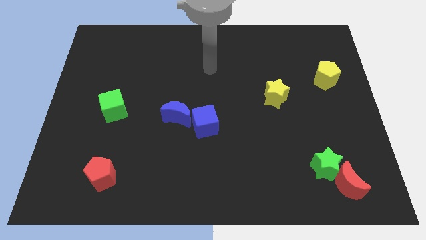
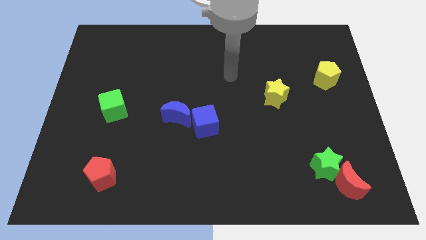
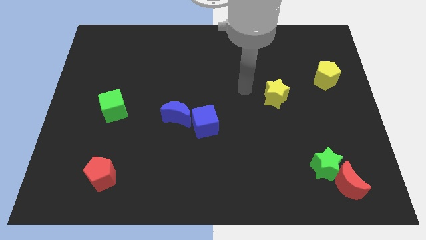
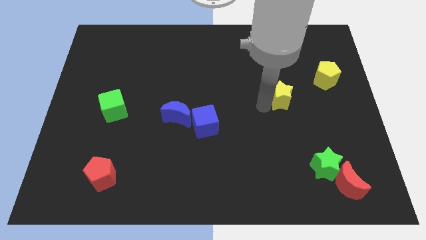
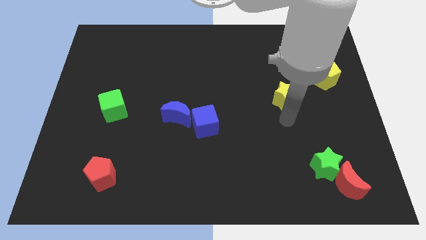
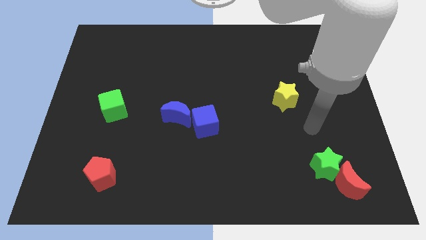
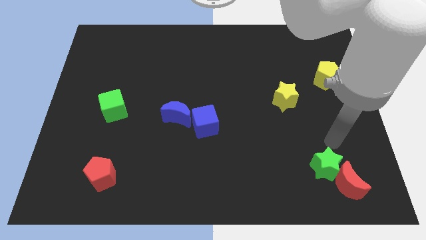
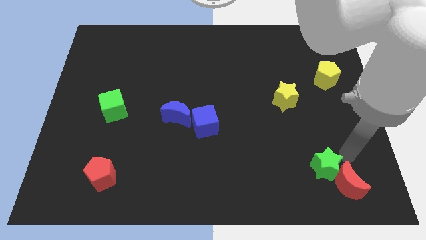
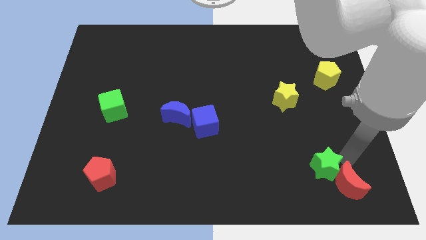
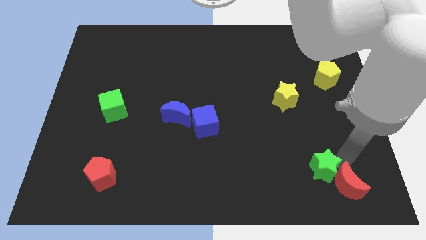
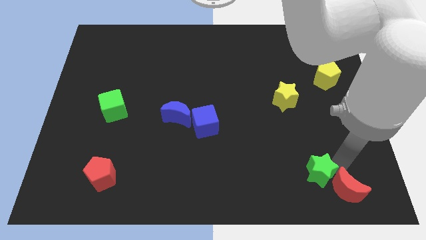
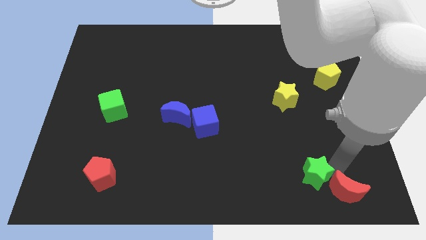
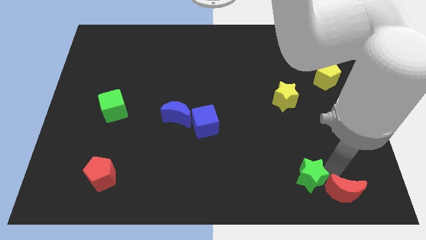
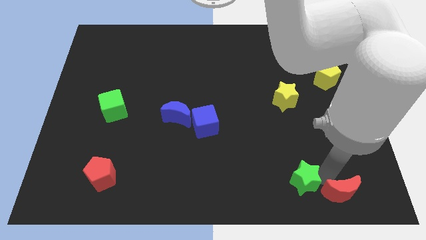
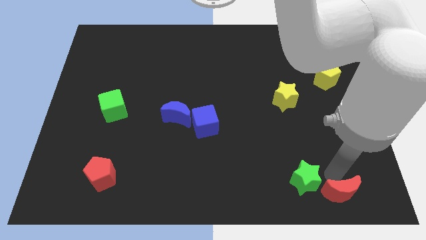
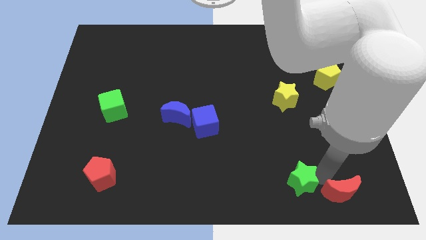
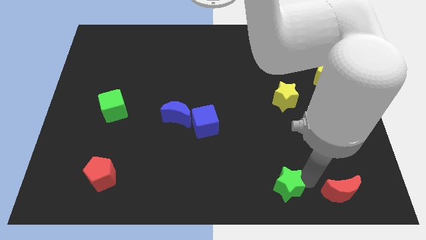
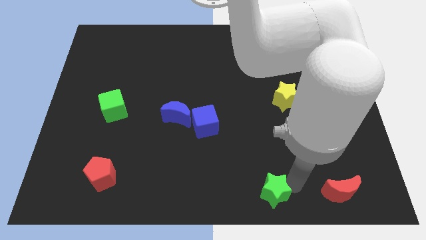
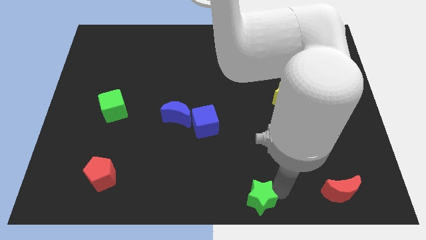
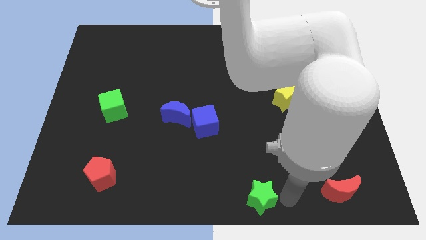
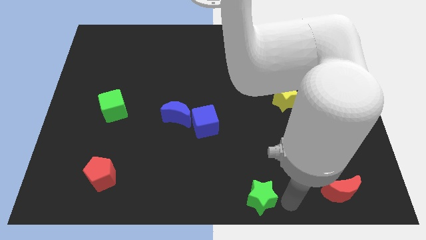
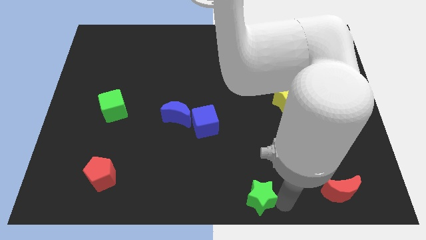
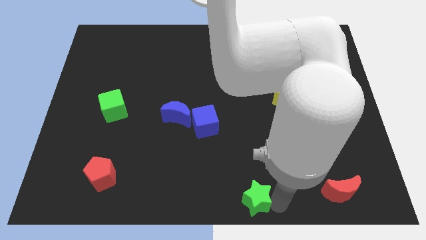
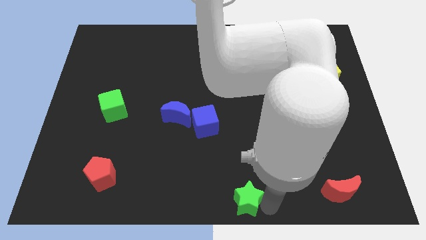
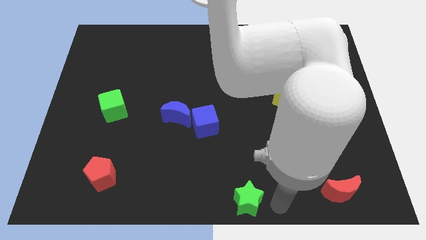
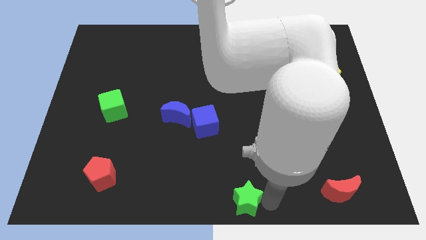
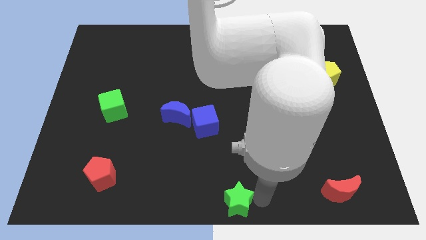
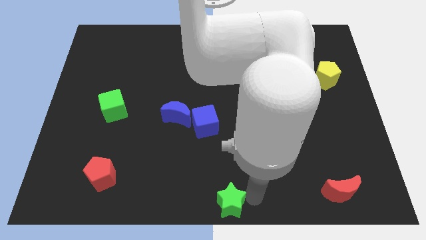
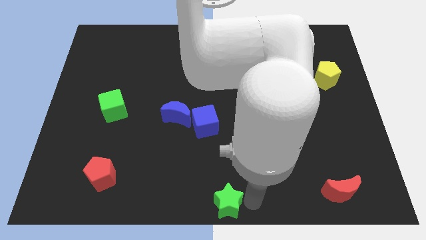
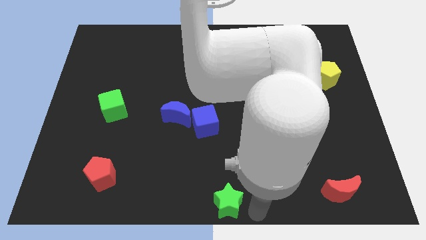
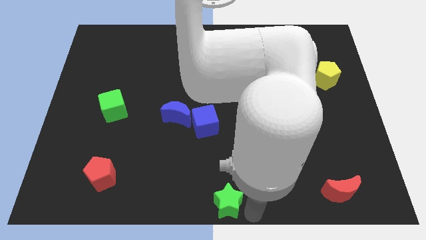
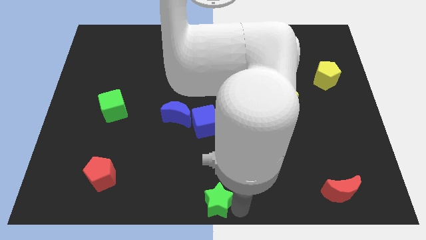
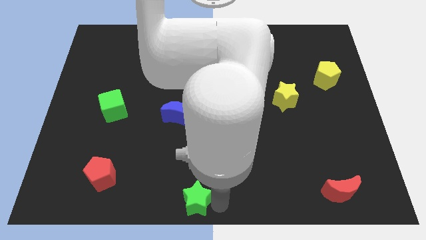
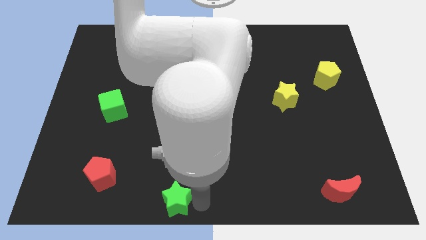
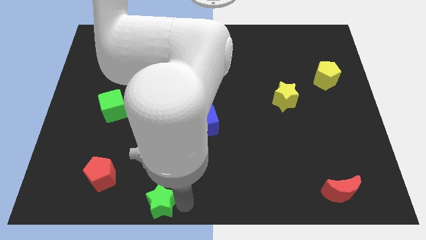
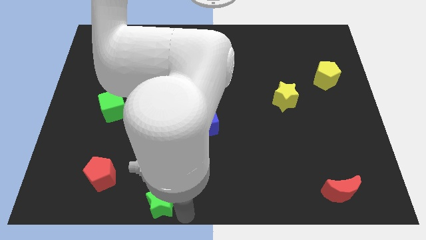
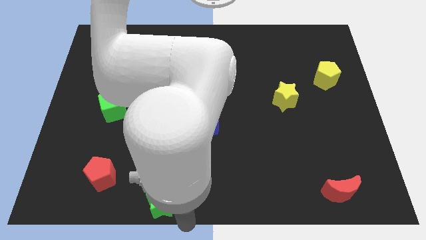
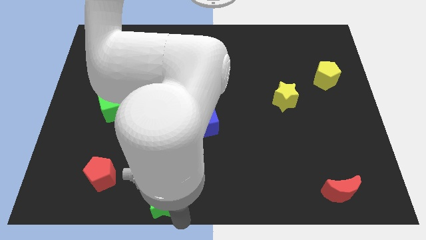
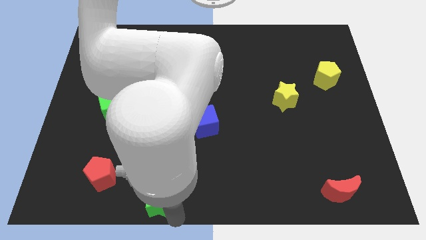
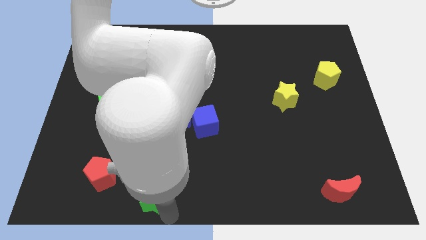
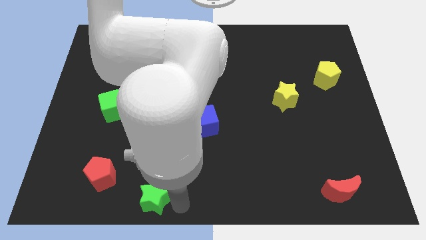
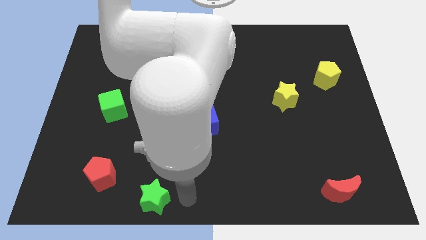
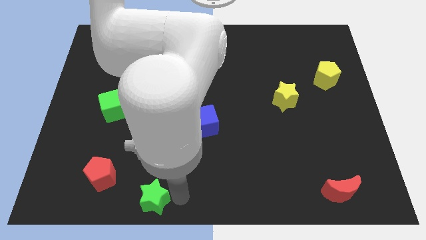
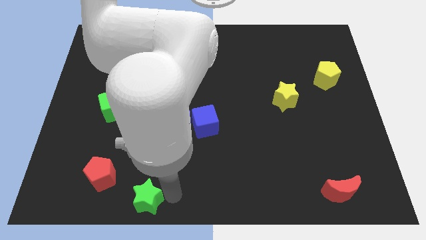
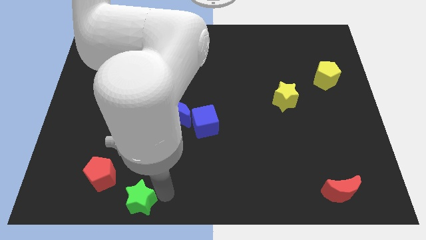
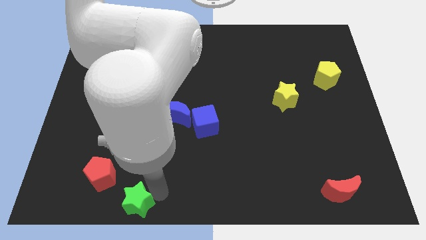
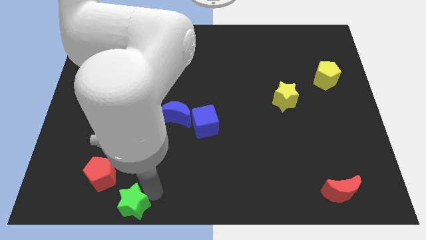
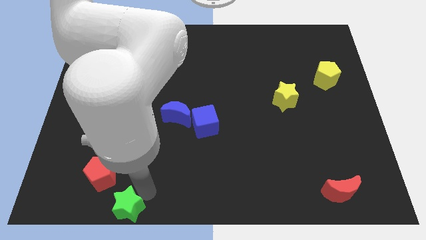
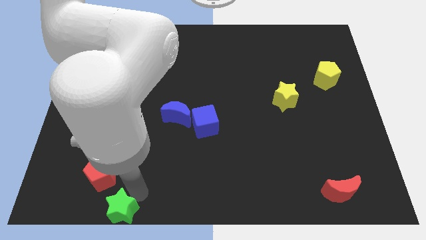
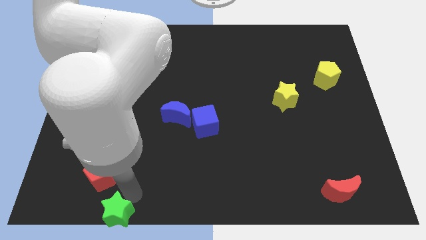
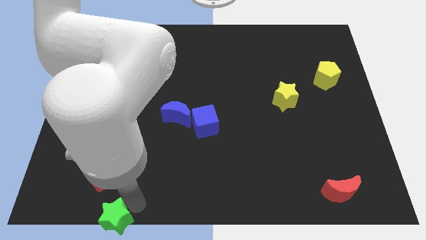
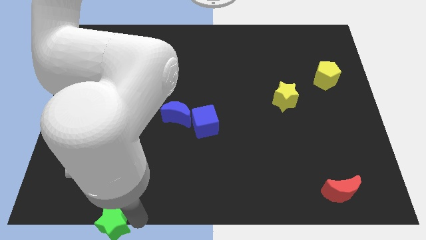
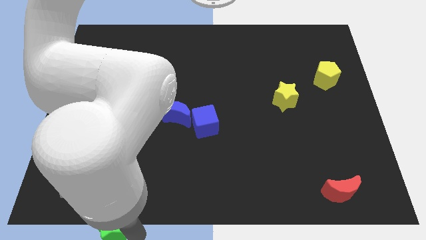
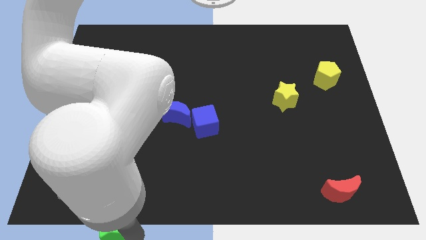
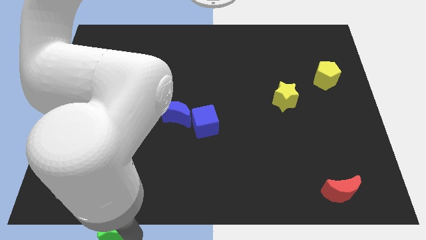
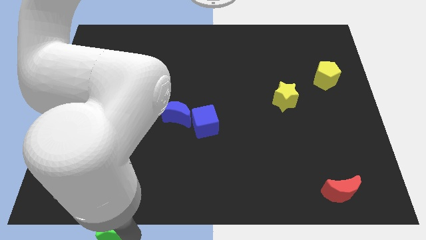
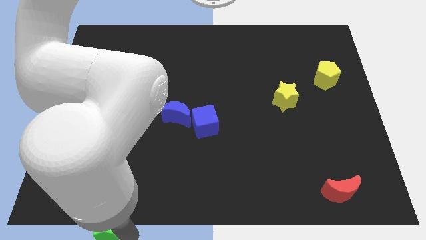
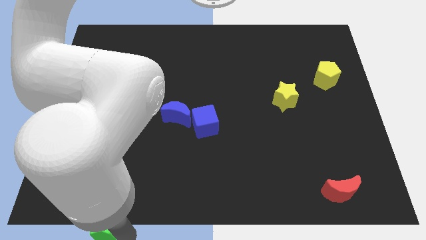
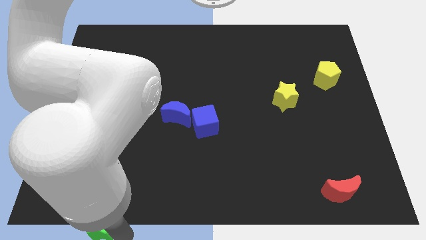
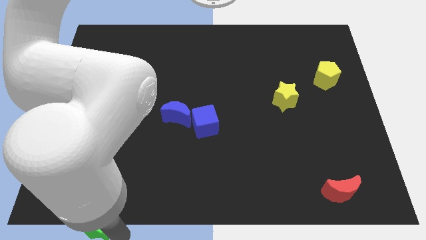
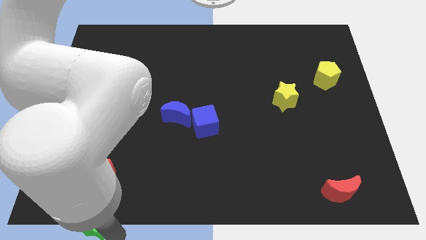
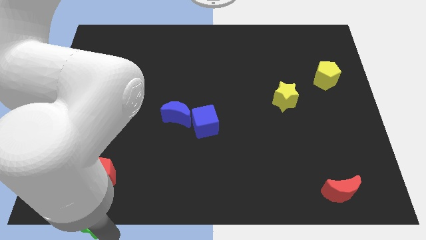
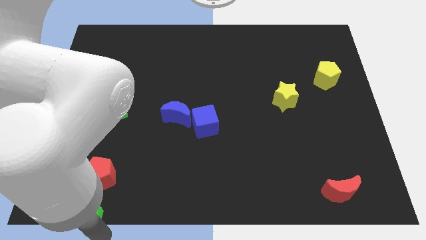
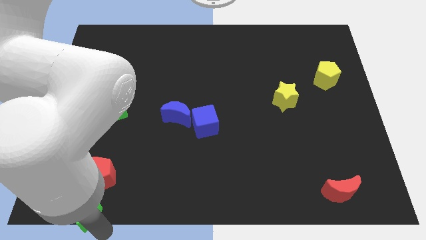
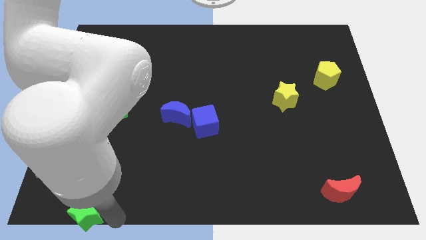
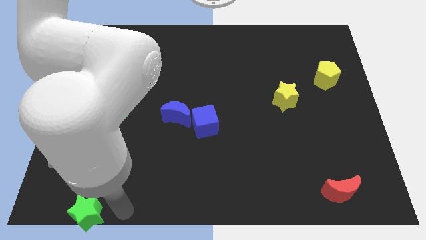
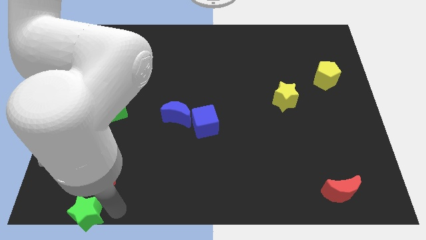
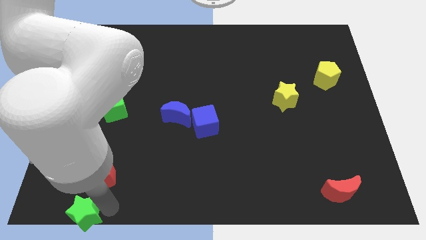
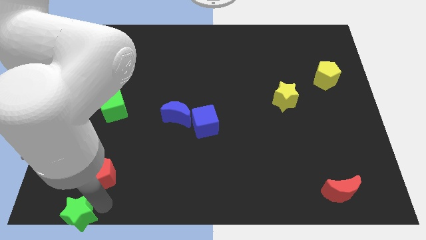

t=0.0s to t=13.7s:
slide the green star to the bottom left

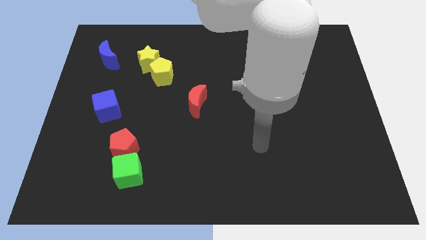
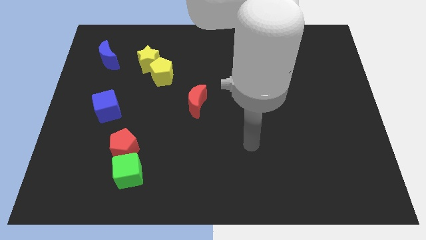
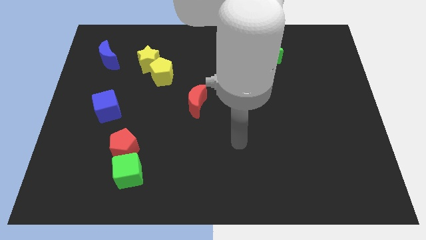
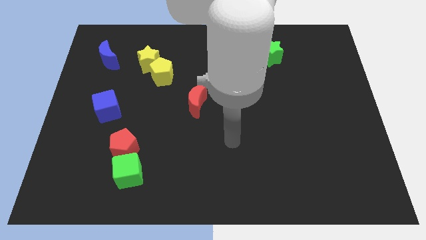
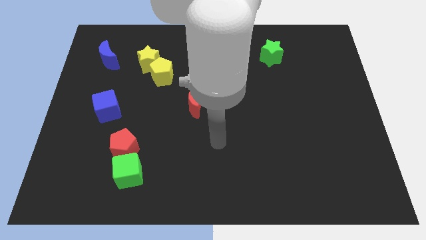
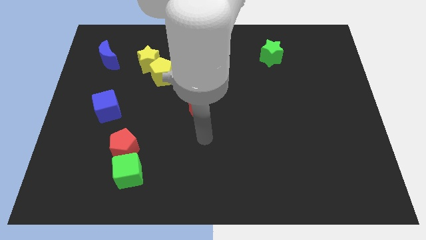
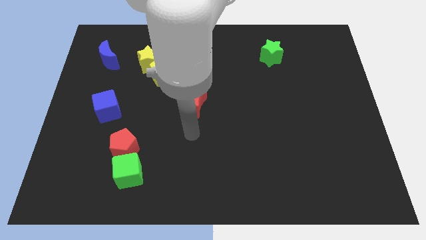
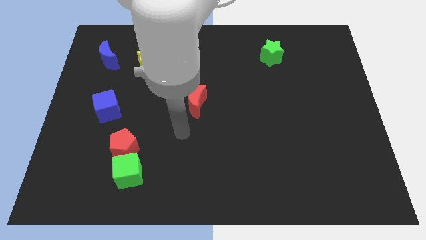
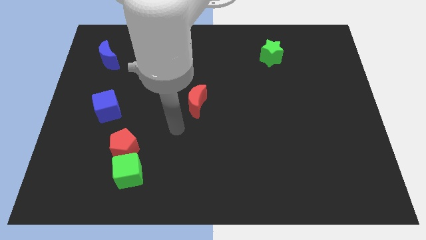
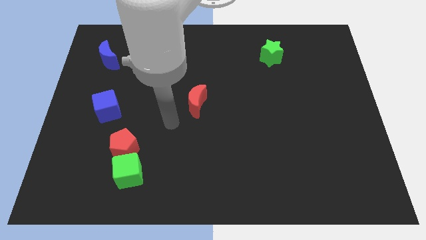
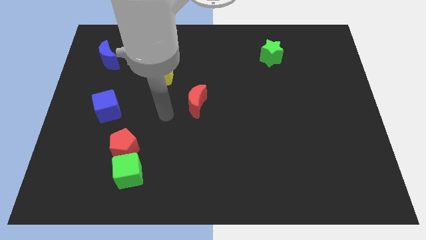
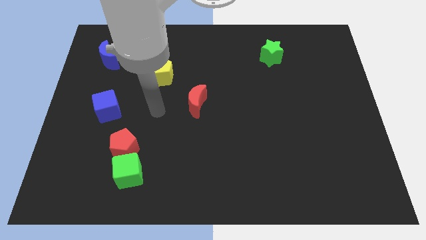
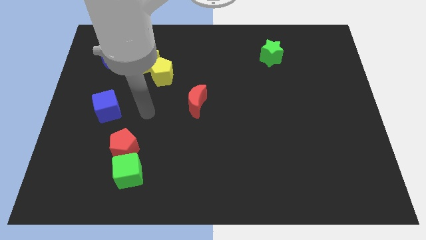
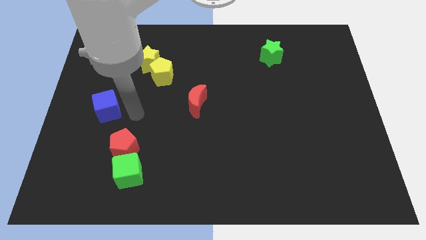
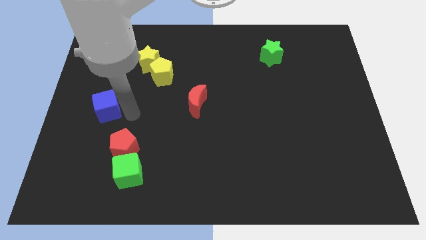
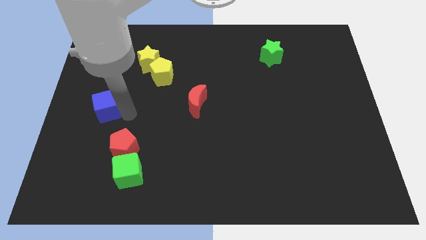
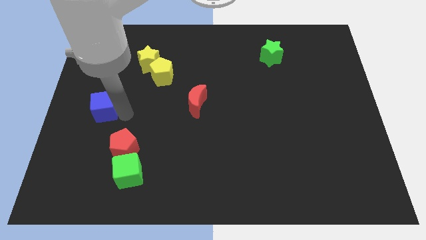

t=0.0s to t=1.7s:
slide the blue cube to the left side of the board
